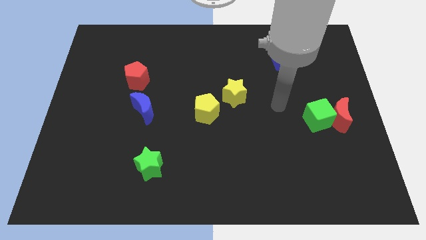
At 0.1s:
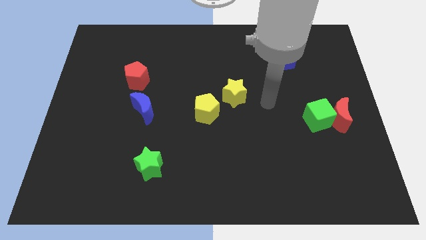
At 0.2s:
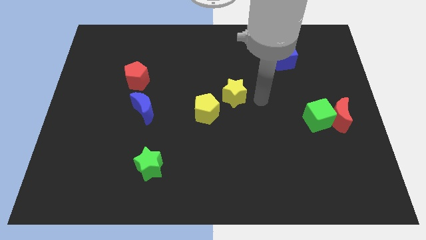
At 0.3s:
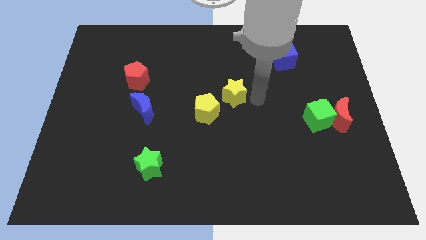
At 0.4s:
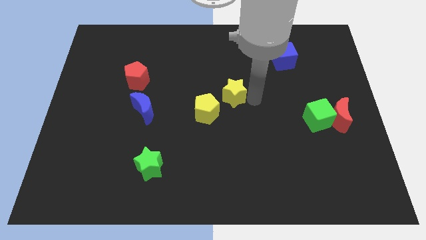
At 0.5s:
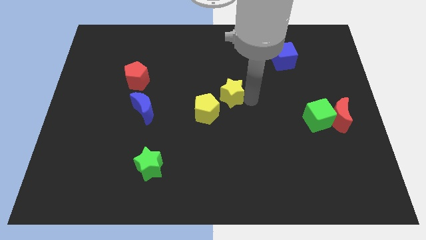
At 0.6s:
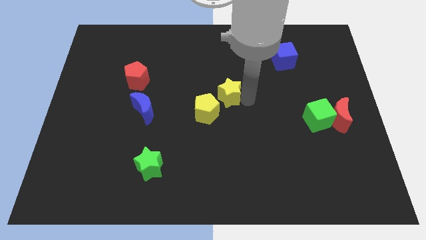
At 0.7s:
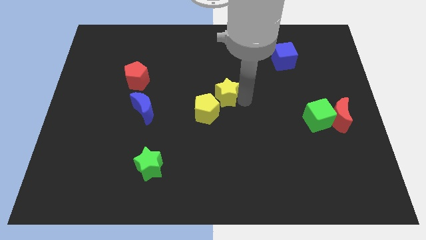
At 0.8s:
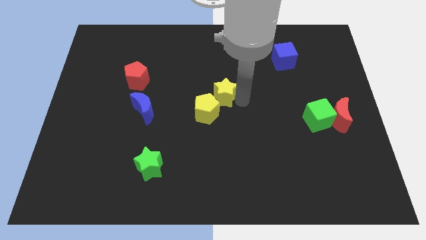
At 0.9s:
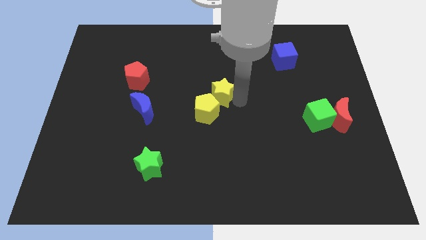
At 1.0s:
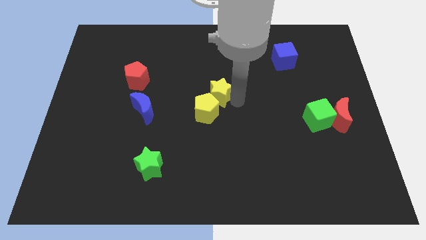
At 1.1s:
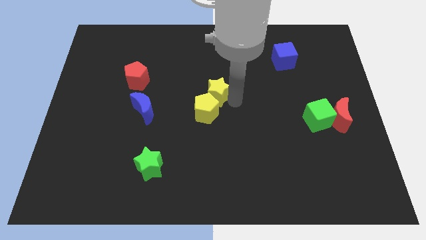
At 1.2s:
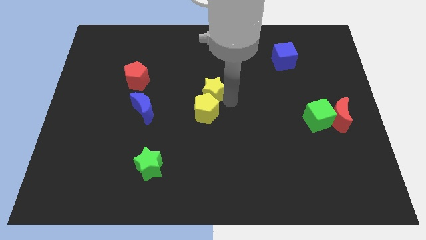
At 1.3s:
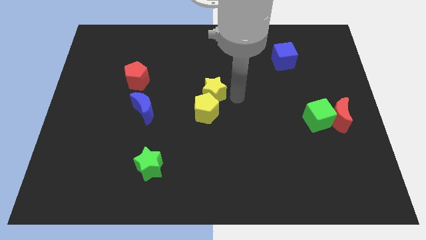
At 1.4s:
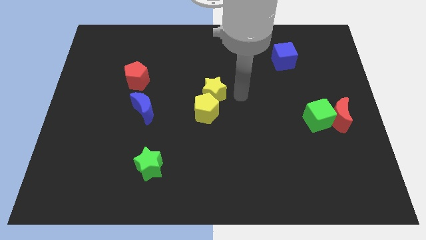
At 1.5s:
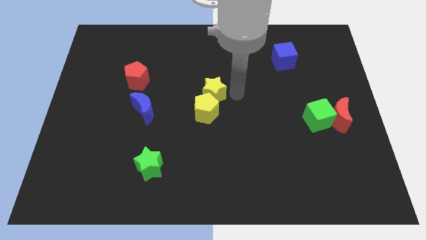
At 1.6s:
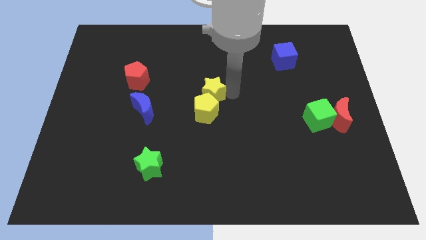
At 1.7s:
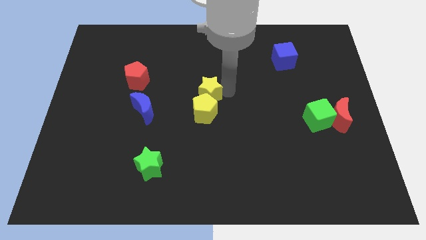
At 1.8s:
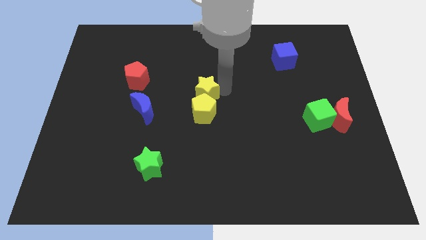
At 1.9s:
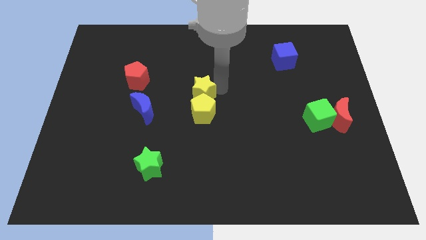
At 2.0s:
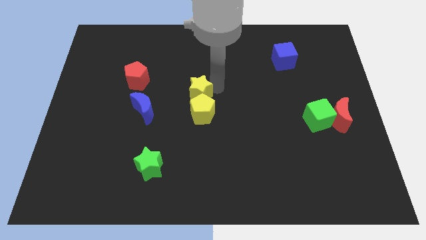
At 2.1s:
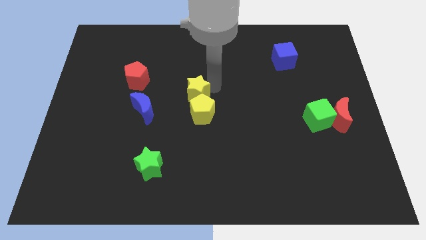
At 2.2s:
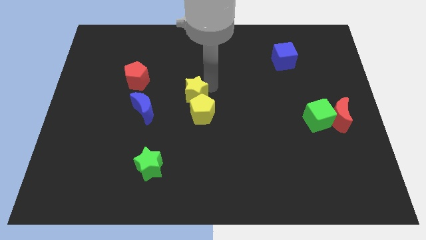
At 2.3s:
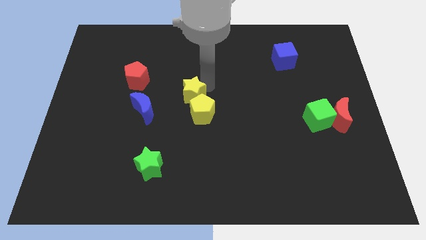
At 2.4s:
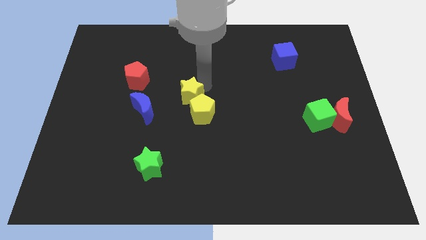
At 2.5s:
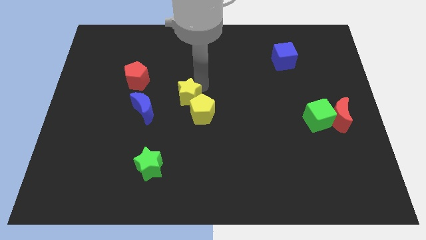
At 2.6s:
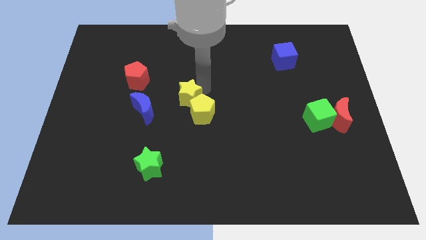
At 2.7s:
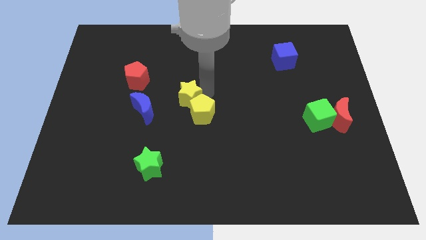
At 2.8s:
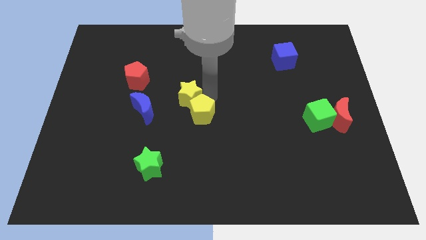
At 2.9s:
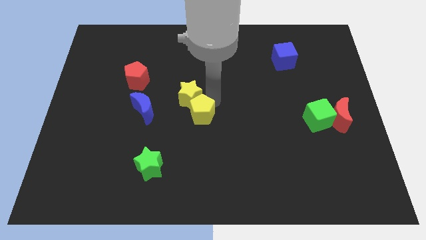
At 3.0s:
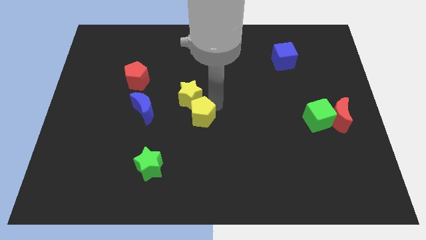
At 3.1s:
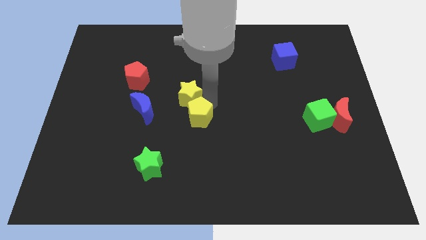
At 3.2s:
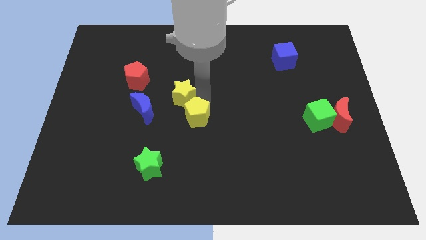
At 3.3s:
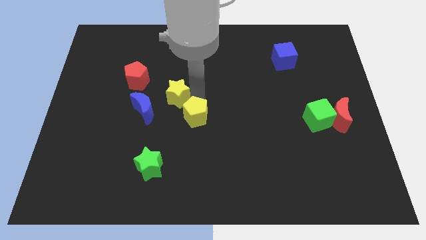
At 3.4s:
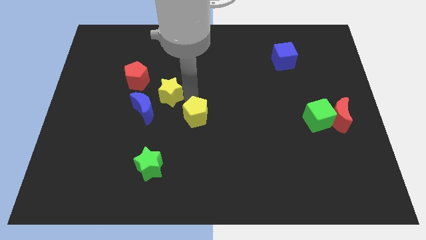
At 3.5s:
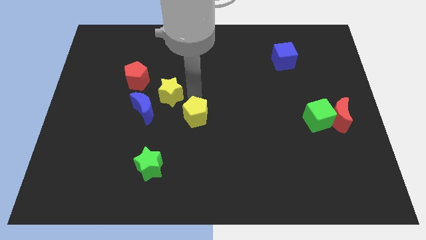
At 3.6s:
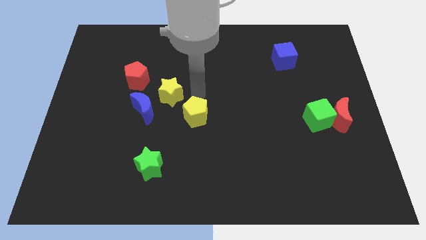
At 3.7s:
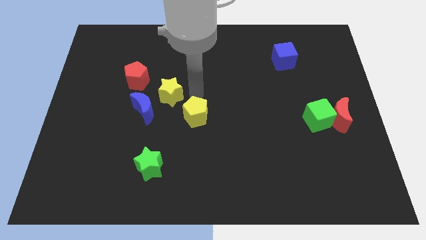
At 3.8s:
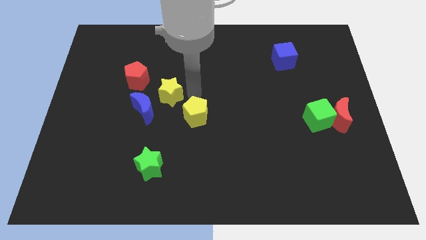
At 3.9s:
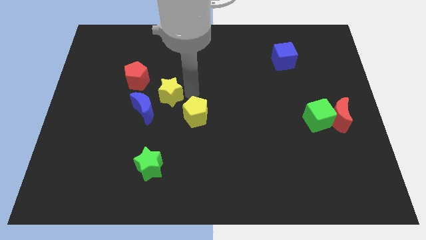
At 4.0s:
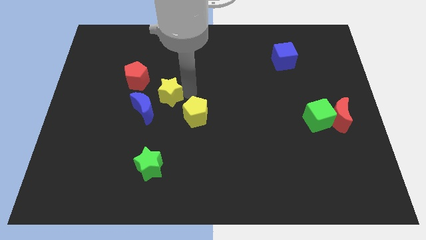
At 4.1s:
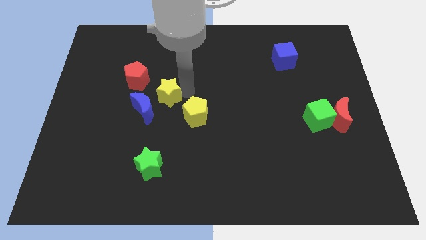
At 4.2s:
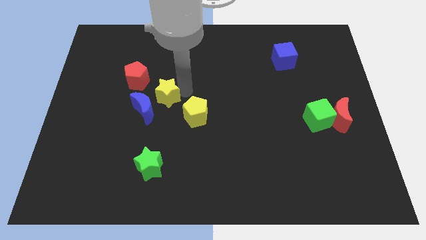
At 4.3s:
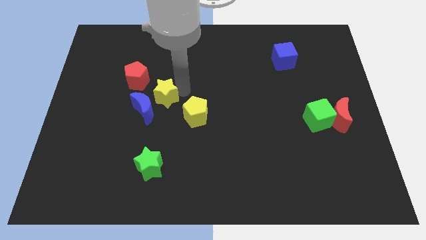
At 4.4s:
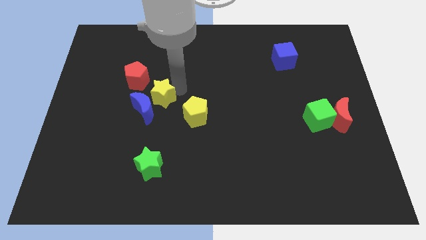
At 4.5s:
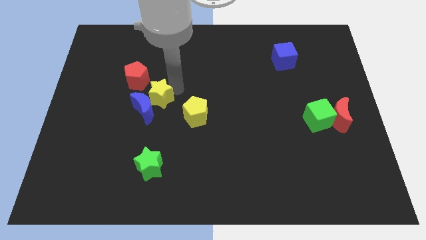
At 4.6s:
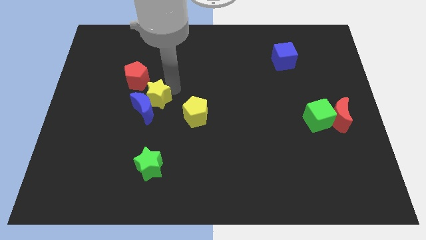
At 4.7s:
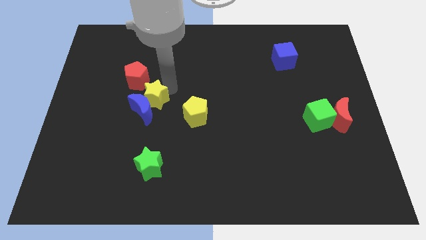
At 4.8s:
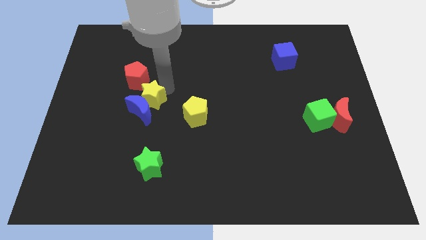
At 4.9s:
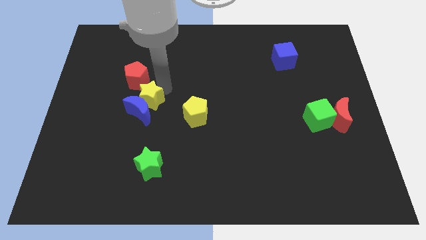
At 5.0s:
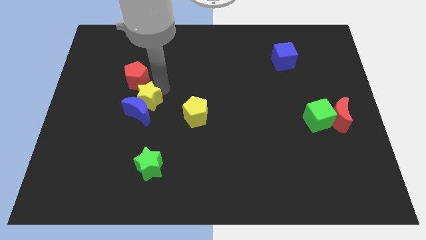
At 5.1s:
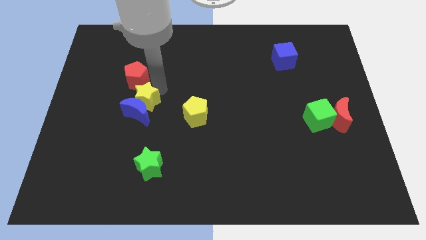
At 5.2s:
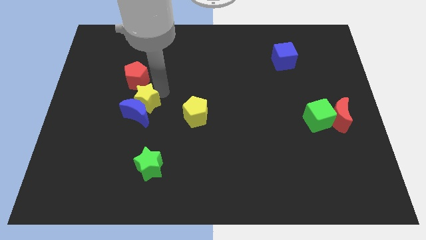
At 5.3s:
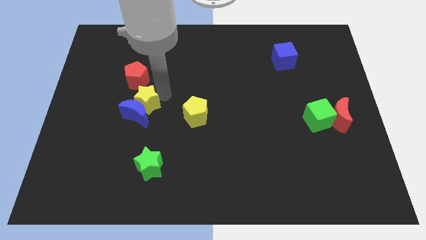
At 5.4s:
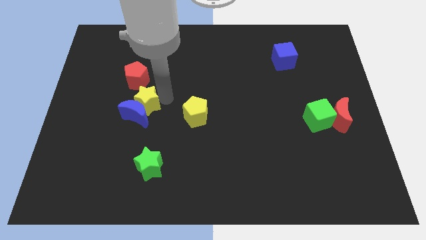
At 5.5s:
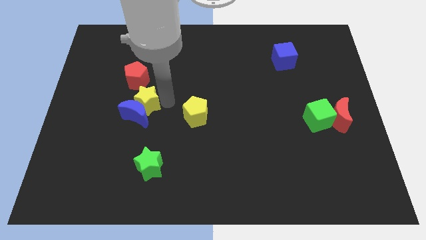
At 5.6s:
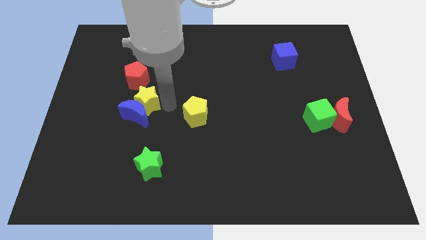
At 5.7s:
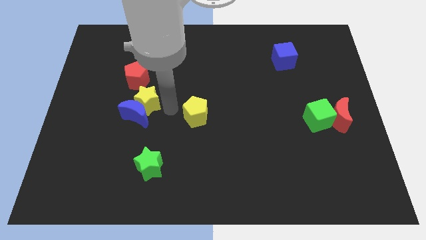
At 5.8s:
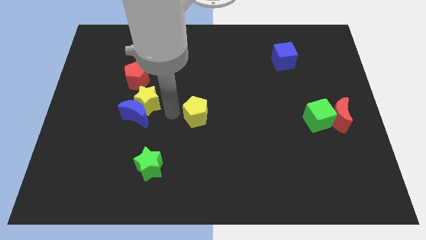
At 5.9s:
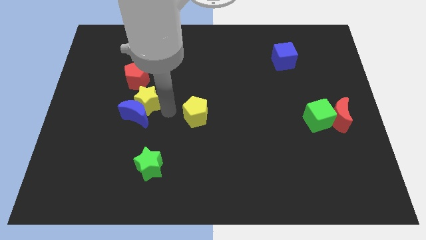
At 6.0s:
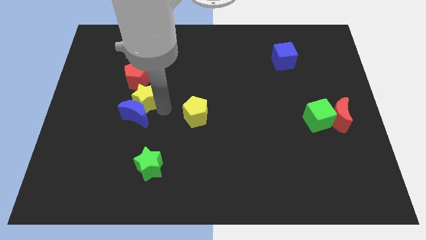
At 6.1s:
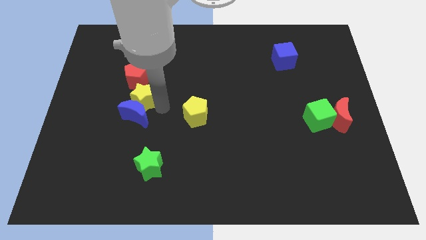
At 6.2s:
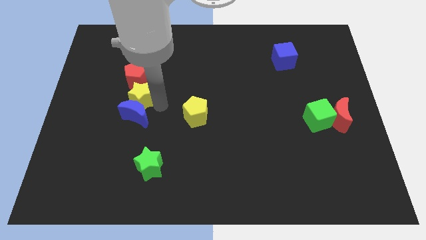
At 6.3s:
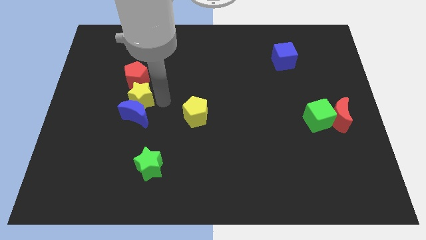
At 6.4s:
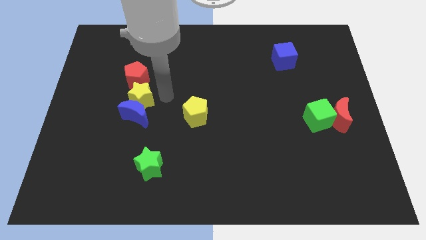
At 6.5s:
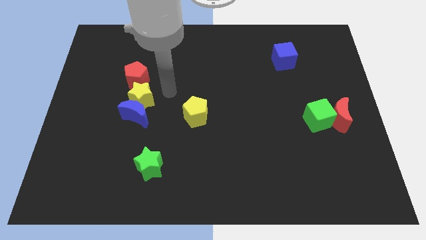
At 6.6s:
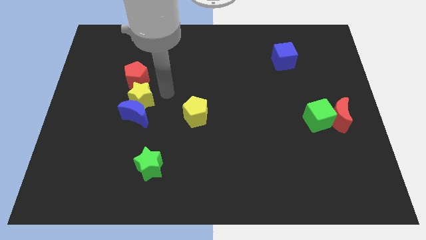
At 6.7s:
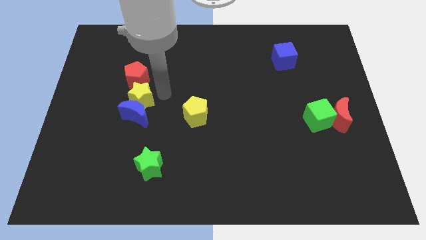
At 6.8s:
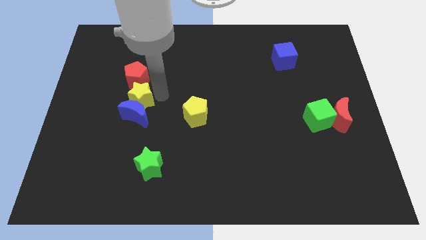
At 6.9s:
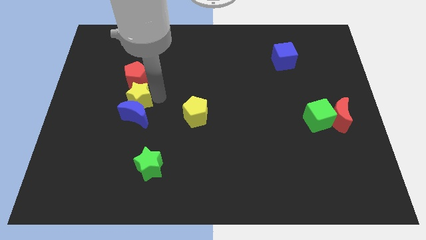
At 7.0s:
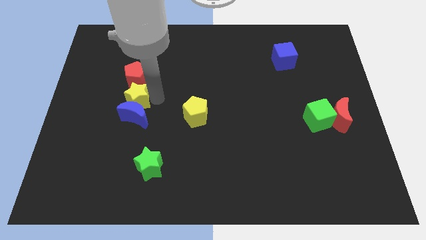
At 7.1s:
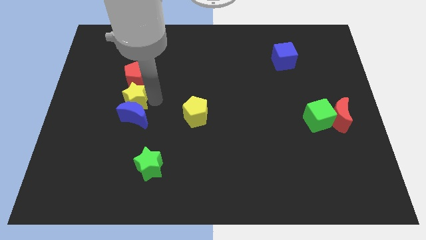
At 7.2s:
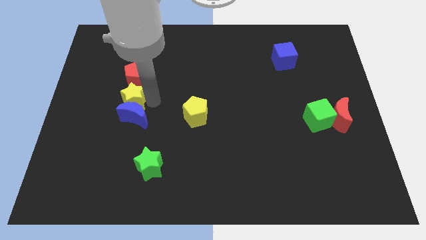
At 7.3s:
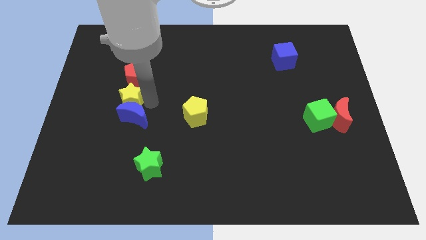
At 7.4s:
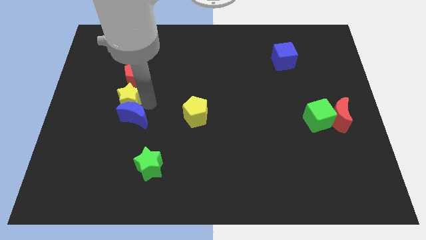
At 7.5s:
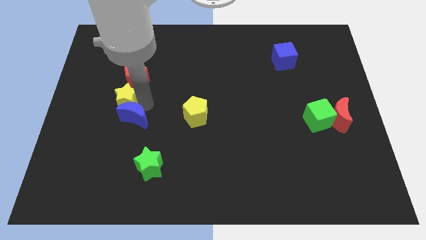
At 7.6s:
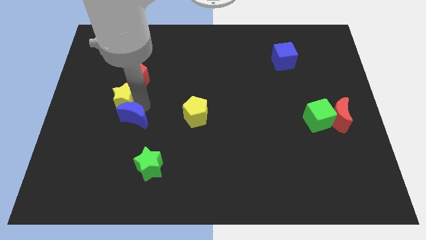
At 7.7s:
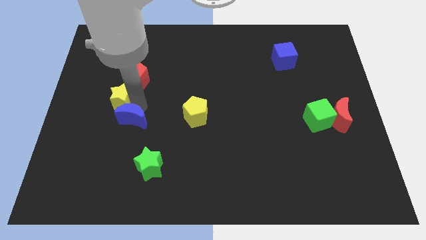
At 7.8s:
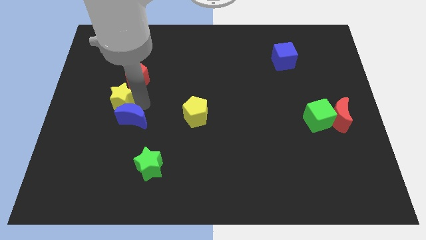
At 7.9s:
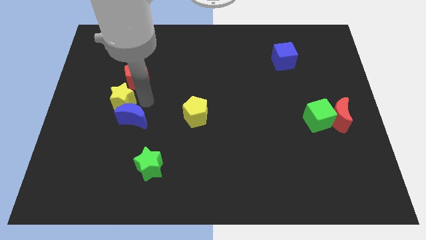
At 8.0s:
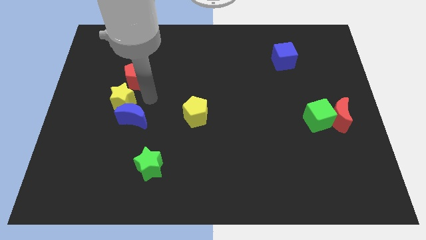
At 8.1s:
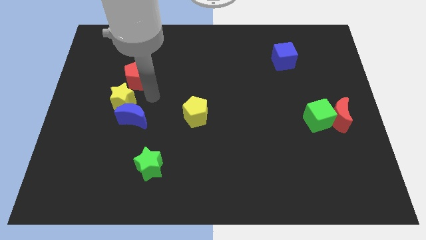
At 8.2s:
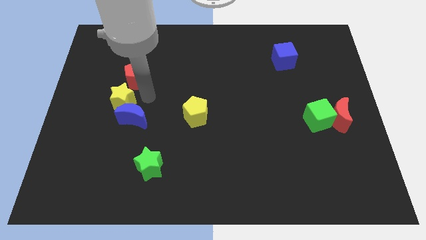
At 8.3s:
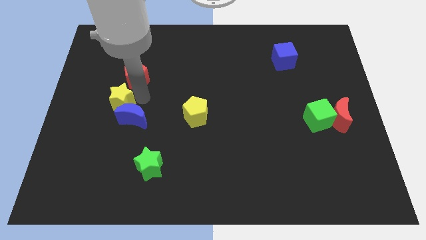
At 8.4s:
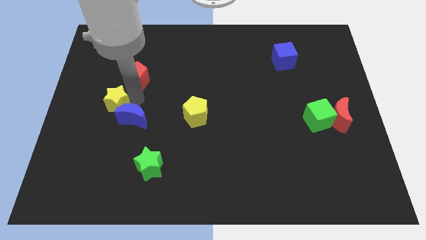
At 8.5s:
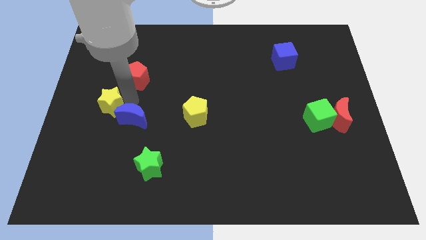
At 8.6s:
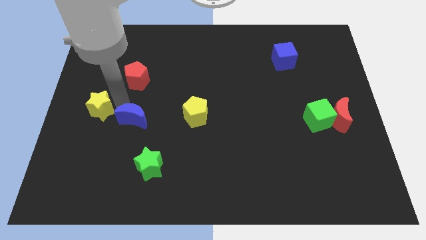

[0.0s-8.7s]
push the yellow star to the center left
